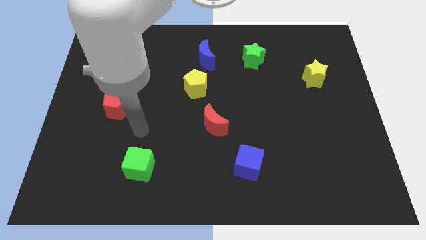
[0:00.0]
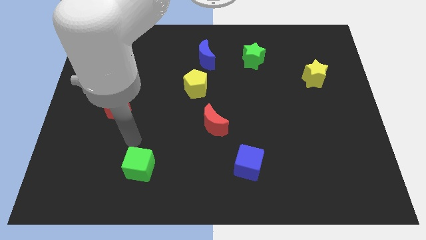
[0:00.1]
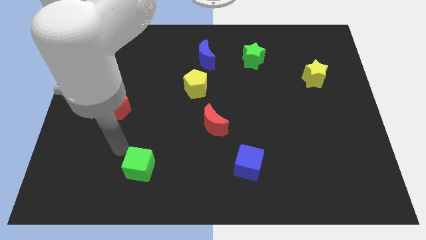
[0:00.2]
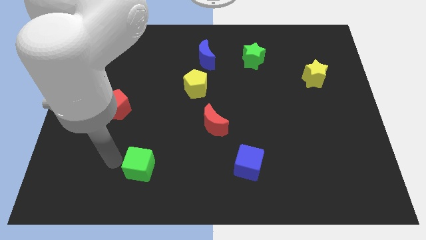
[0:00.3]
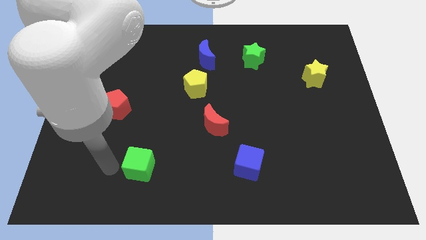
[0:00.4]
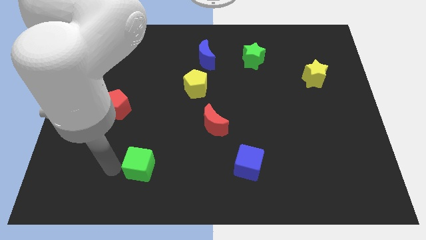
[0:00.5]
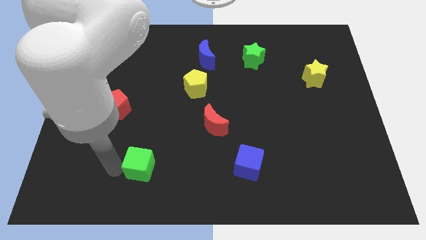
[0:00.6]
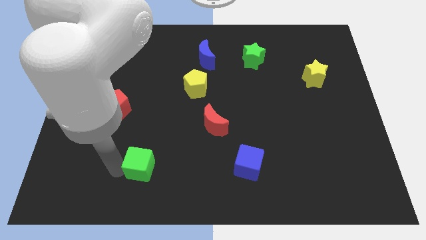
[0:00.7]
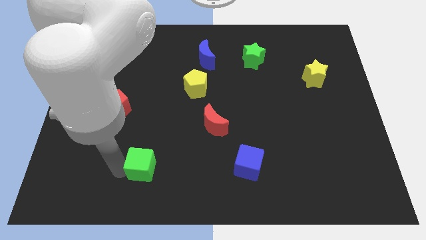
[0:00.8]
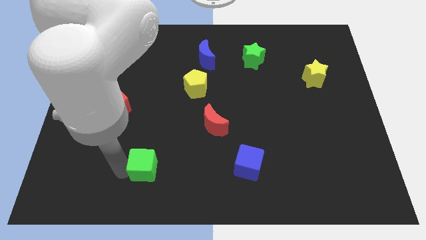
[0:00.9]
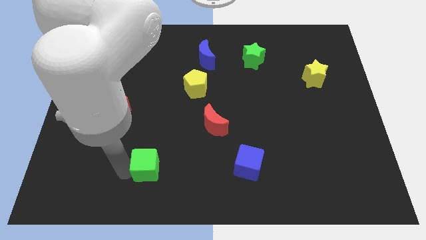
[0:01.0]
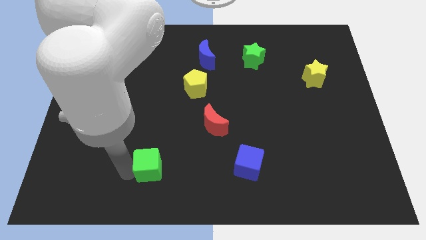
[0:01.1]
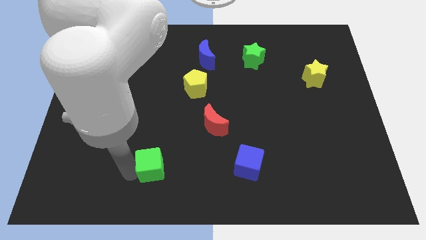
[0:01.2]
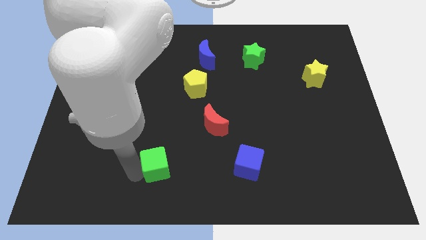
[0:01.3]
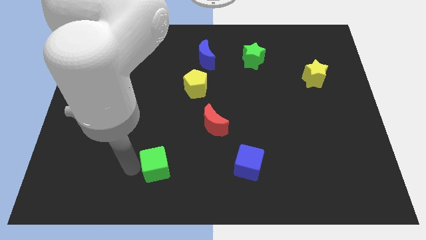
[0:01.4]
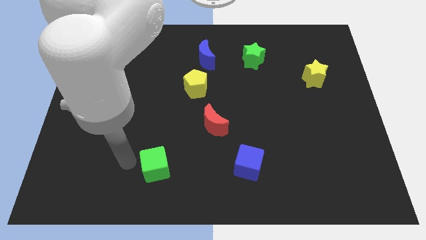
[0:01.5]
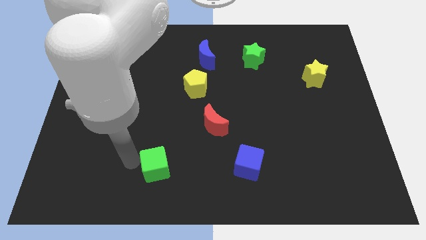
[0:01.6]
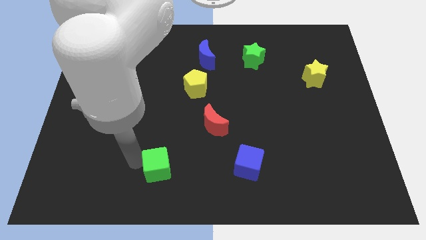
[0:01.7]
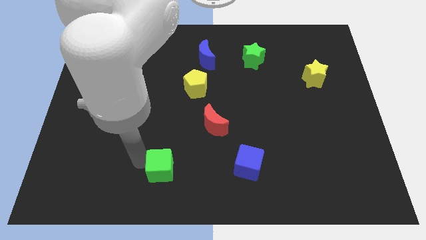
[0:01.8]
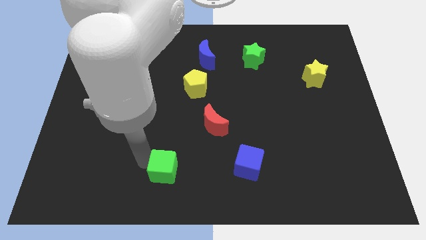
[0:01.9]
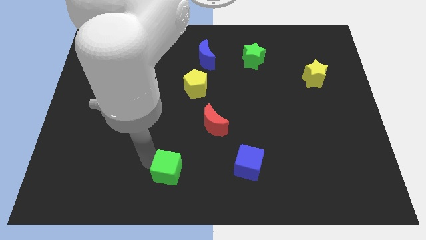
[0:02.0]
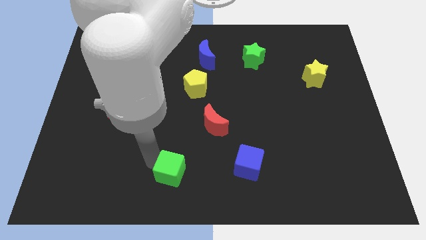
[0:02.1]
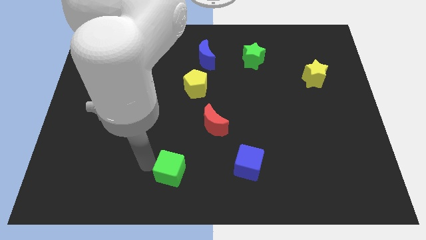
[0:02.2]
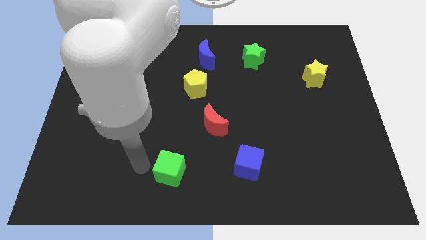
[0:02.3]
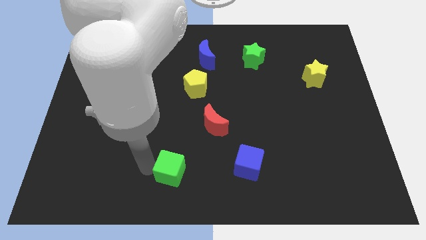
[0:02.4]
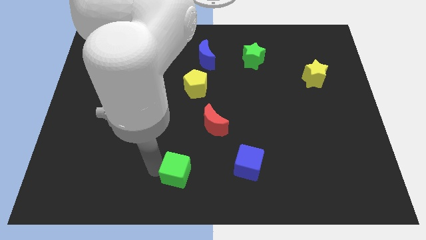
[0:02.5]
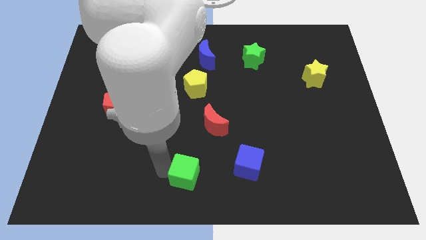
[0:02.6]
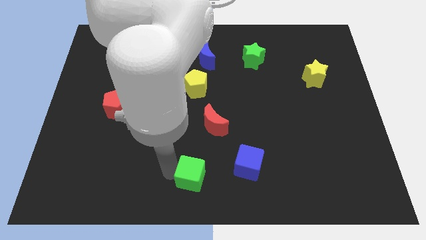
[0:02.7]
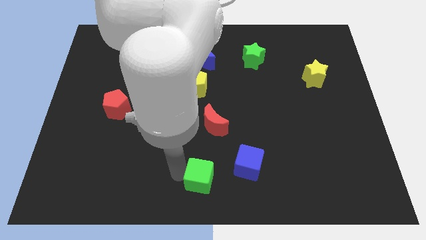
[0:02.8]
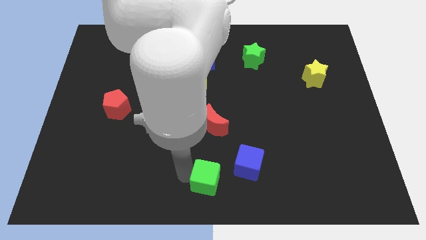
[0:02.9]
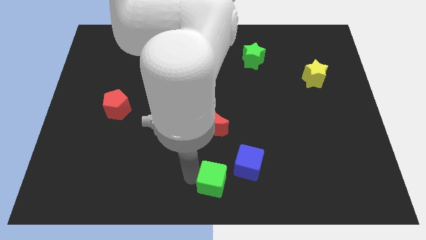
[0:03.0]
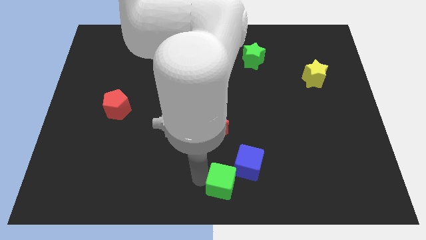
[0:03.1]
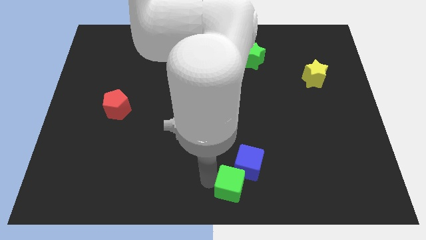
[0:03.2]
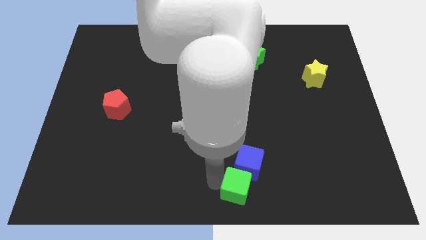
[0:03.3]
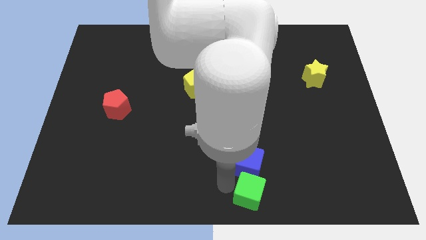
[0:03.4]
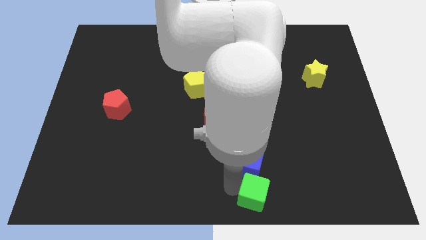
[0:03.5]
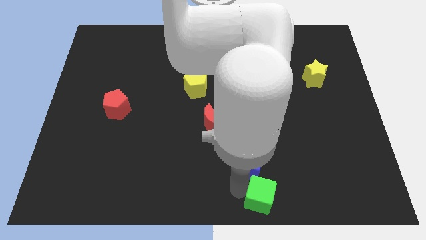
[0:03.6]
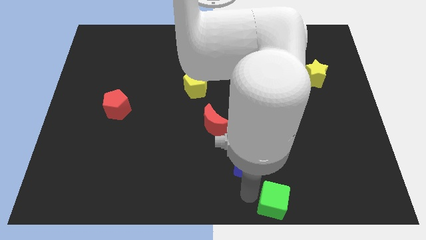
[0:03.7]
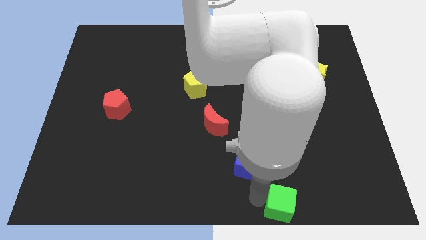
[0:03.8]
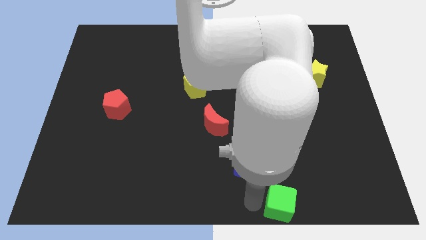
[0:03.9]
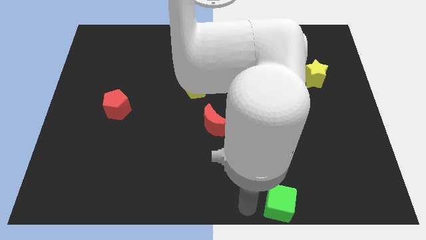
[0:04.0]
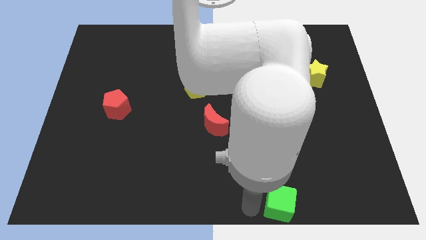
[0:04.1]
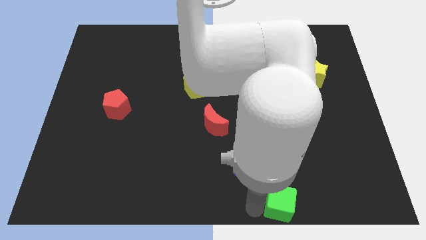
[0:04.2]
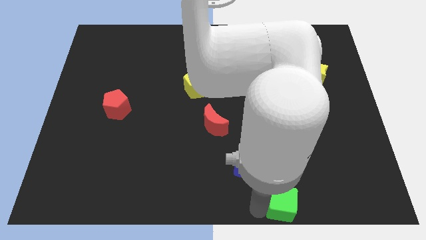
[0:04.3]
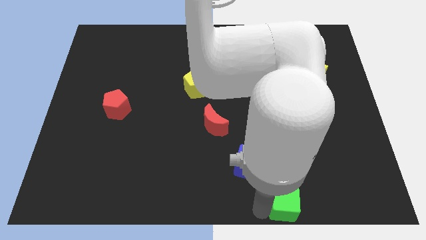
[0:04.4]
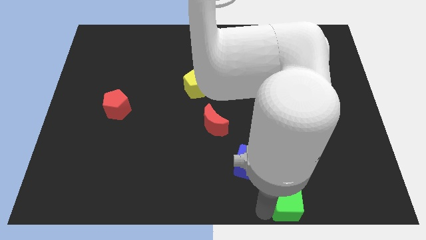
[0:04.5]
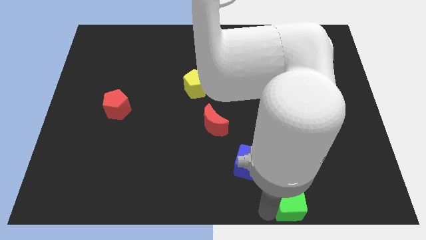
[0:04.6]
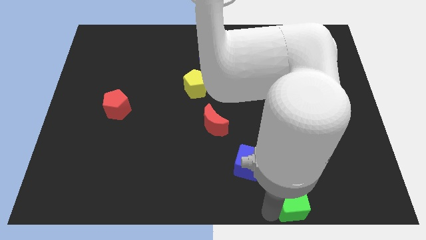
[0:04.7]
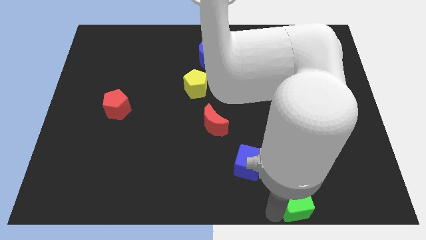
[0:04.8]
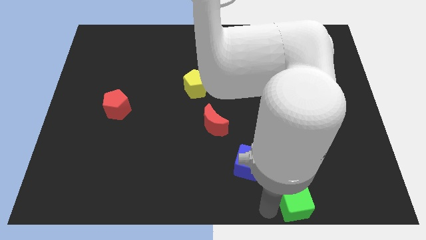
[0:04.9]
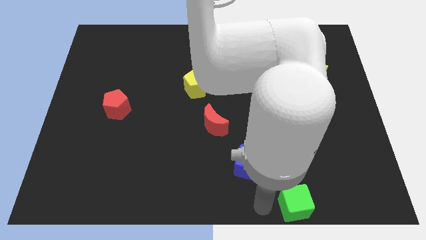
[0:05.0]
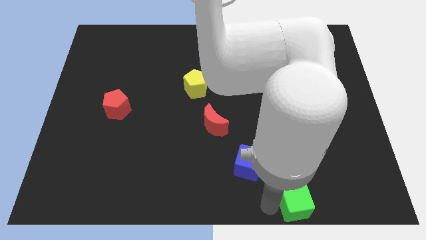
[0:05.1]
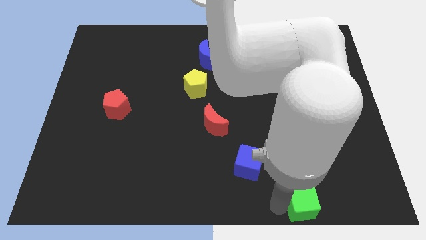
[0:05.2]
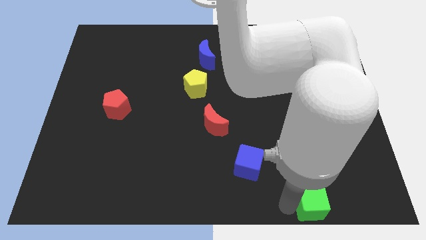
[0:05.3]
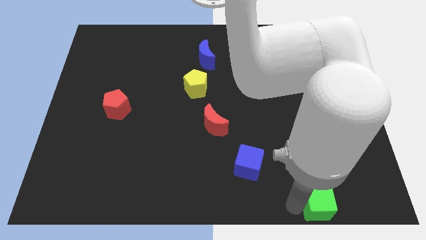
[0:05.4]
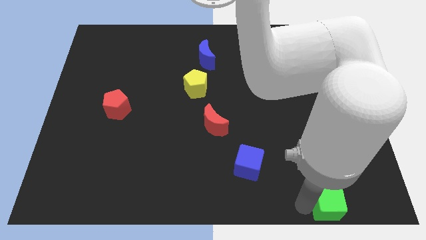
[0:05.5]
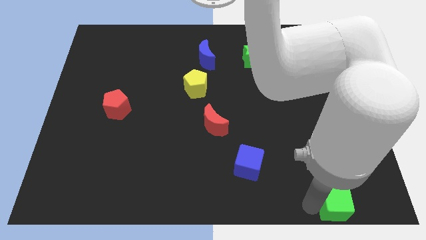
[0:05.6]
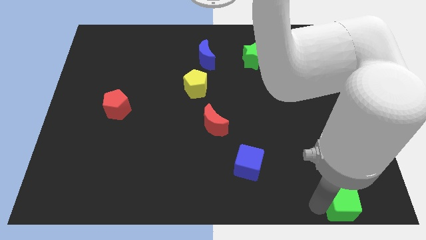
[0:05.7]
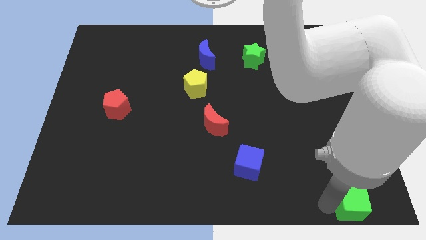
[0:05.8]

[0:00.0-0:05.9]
move the green cube to the bottom right

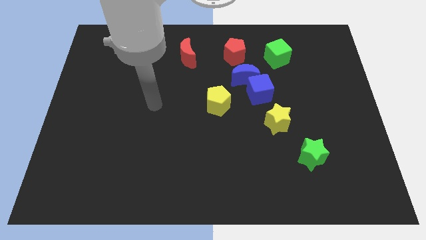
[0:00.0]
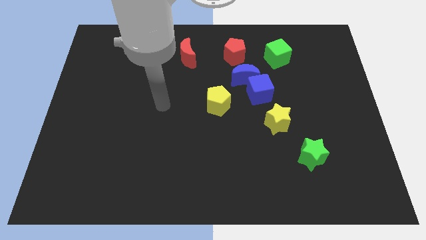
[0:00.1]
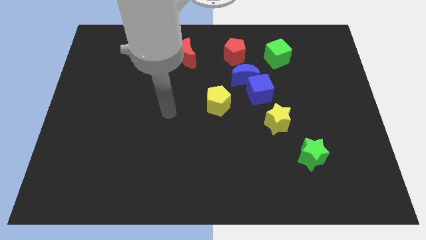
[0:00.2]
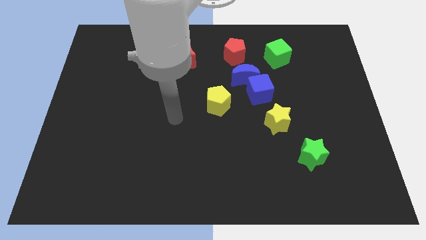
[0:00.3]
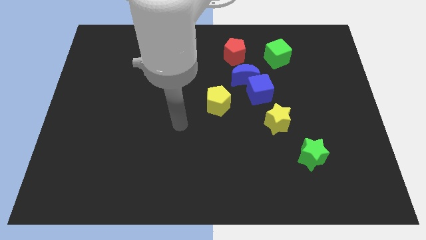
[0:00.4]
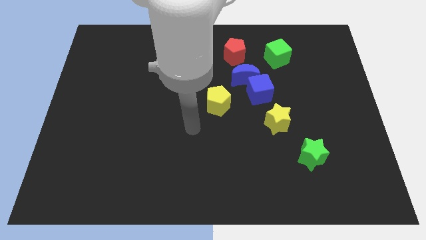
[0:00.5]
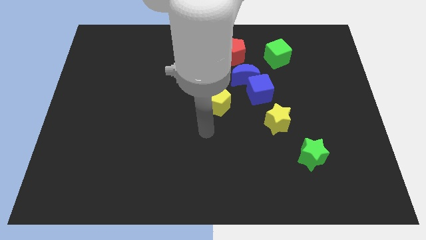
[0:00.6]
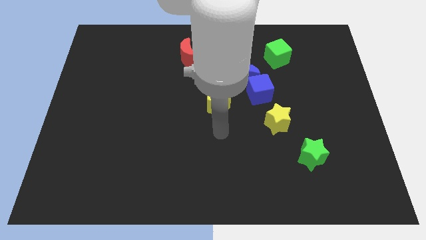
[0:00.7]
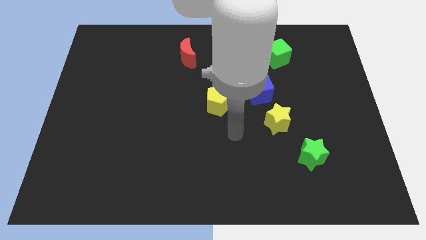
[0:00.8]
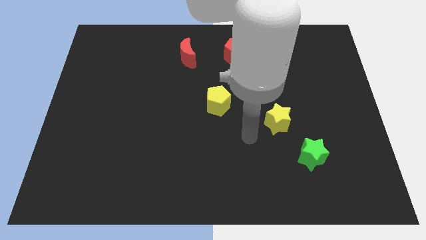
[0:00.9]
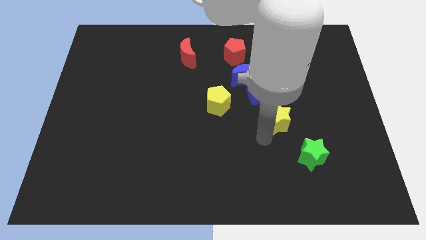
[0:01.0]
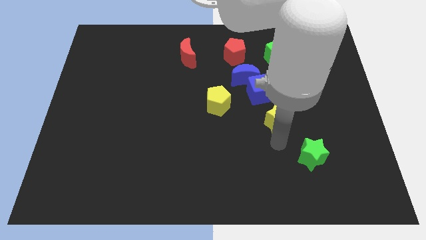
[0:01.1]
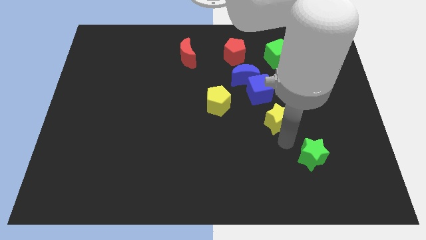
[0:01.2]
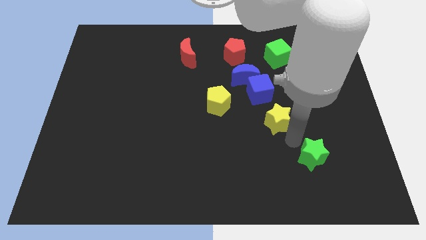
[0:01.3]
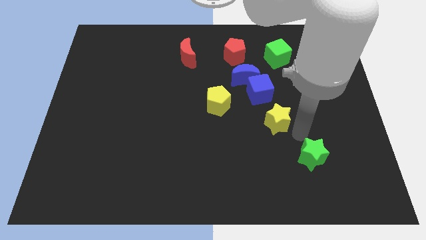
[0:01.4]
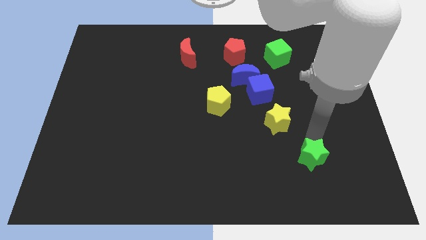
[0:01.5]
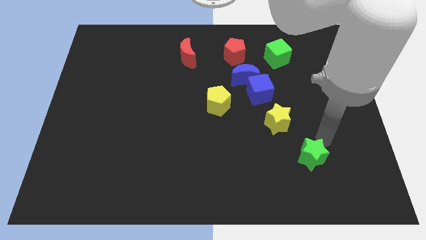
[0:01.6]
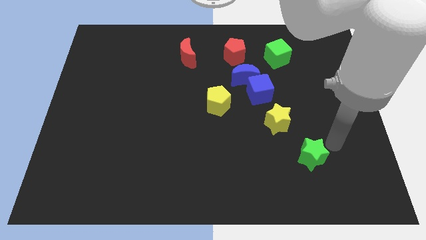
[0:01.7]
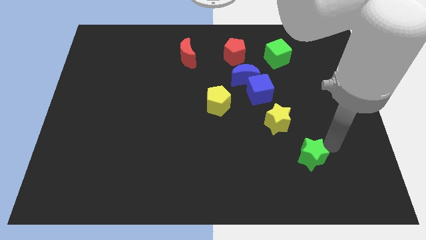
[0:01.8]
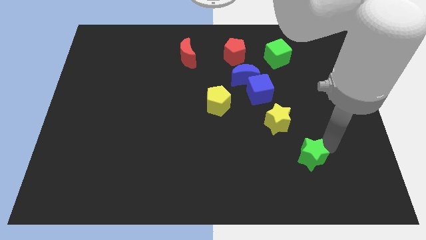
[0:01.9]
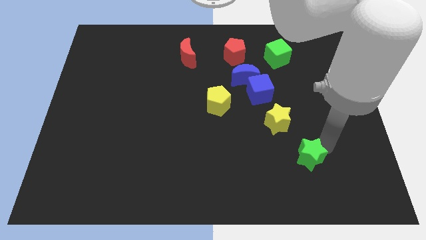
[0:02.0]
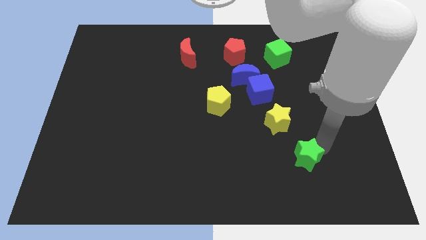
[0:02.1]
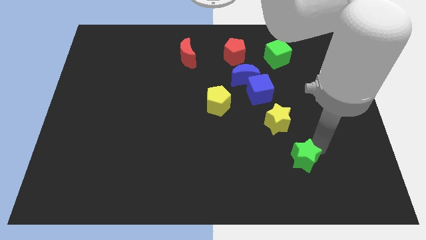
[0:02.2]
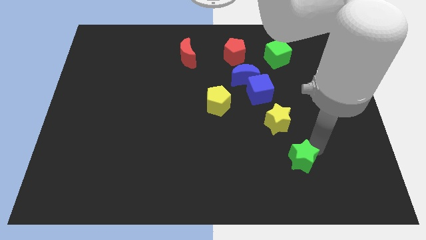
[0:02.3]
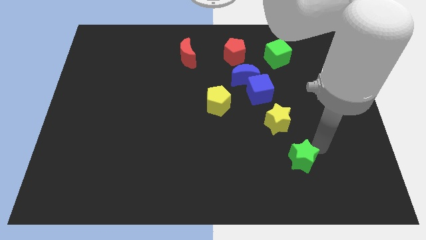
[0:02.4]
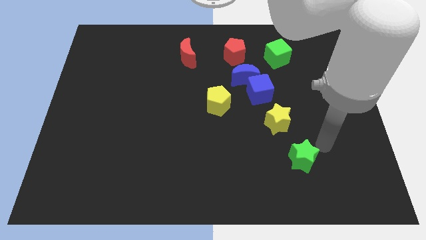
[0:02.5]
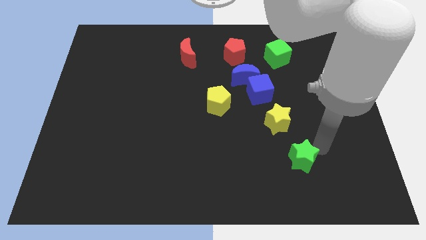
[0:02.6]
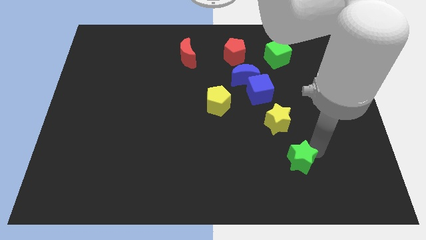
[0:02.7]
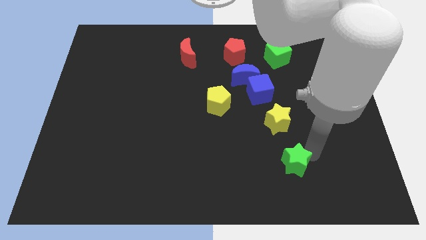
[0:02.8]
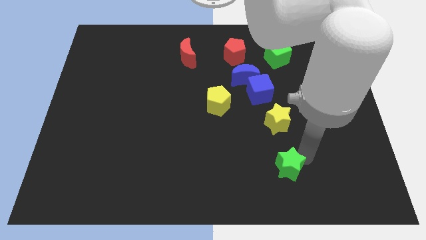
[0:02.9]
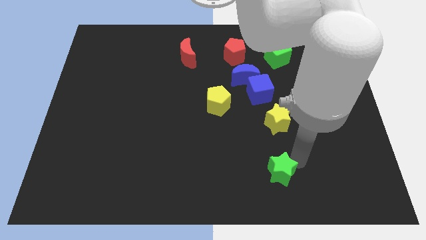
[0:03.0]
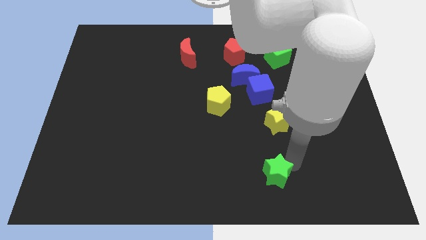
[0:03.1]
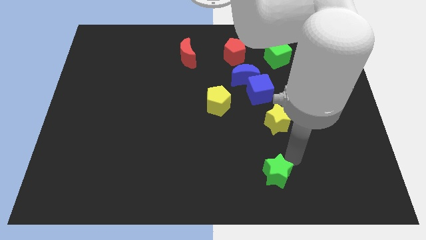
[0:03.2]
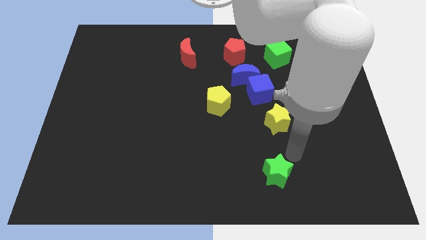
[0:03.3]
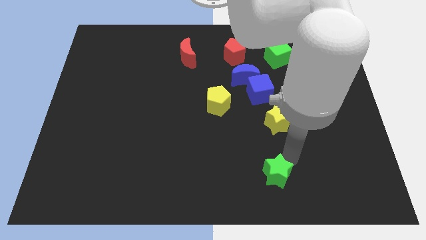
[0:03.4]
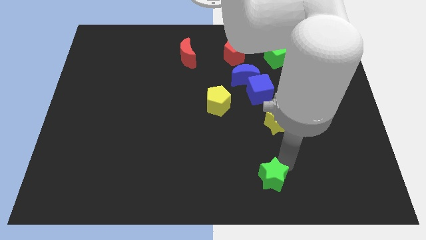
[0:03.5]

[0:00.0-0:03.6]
push the green star to the bottom
